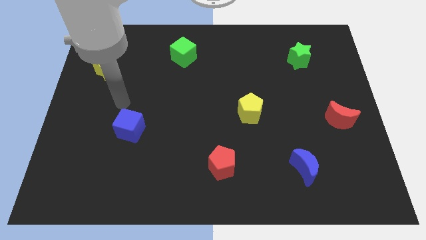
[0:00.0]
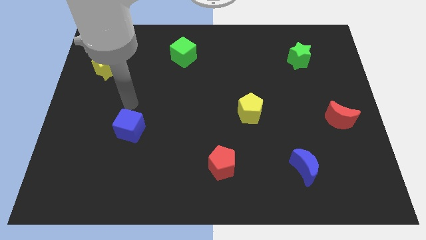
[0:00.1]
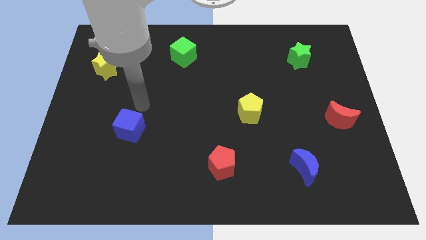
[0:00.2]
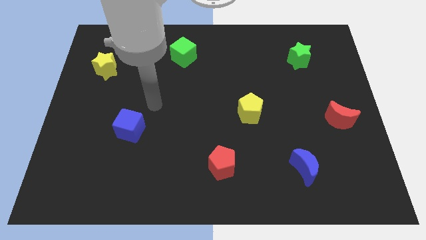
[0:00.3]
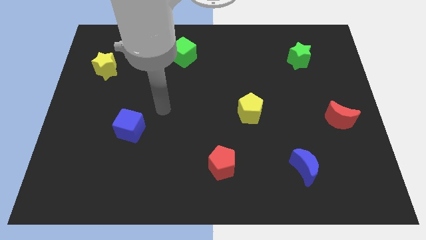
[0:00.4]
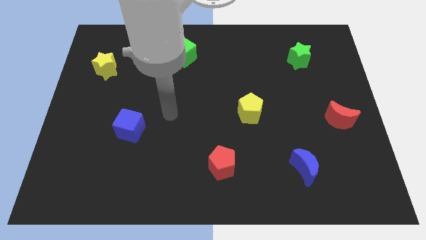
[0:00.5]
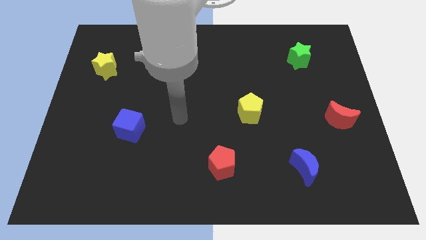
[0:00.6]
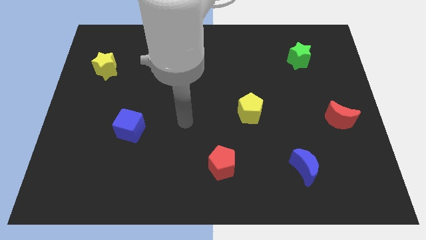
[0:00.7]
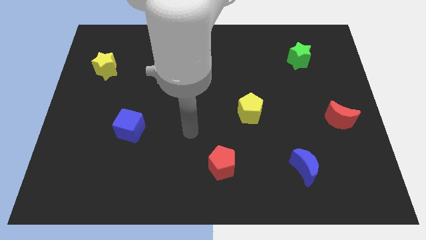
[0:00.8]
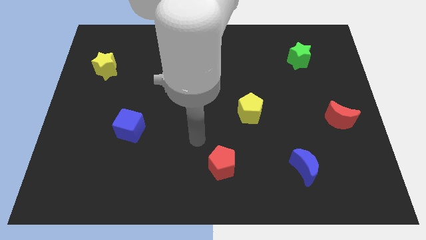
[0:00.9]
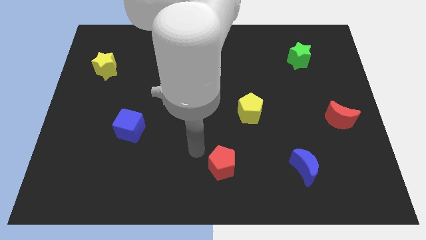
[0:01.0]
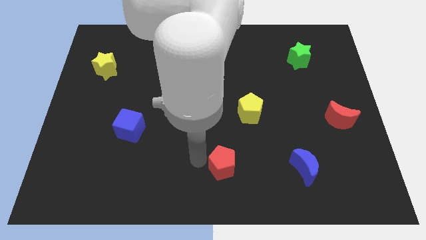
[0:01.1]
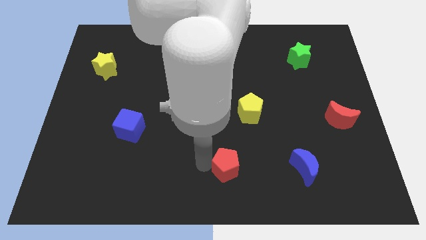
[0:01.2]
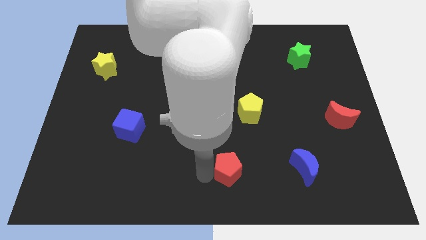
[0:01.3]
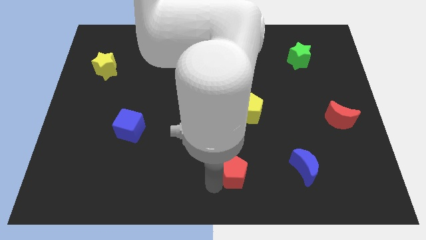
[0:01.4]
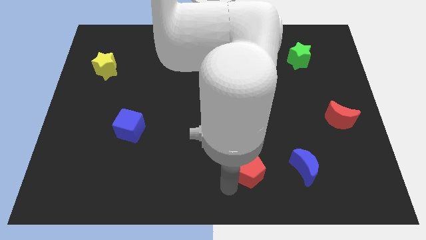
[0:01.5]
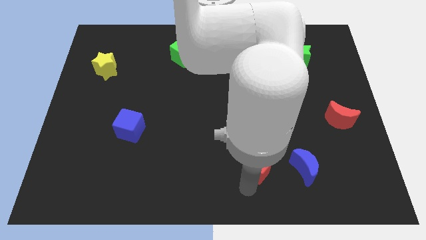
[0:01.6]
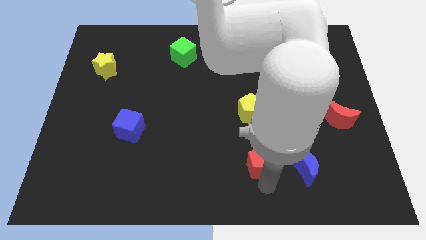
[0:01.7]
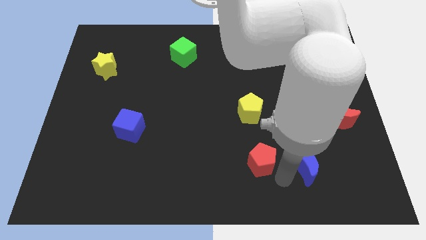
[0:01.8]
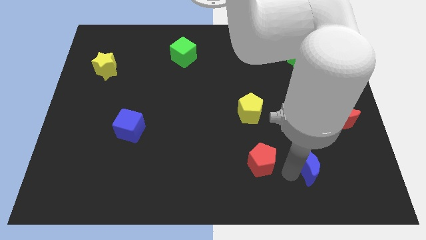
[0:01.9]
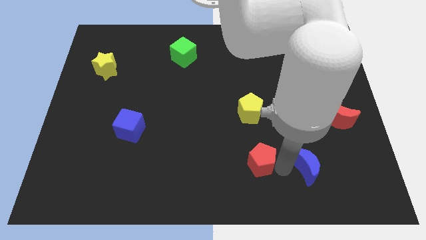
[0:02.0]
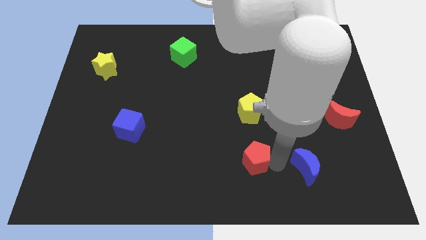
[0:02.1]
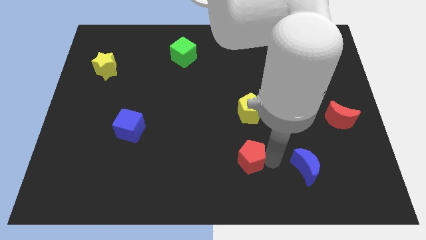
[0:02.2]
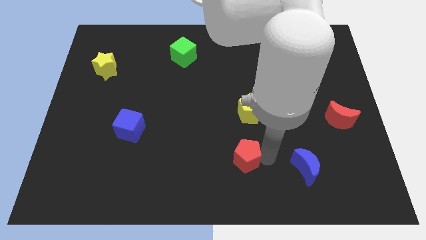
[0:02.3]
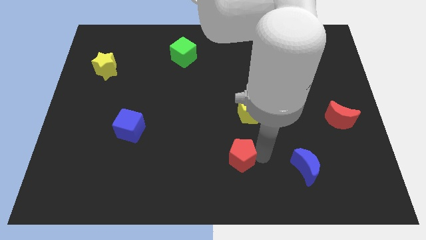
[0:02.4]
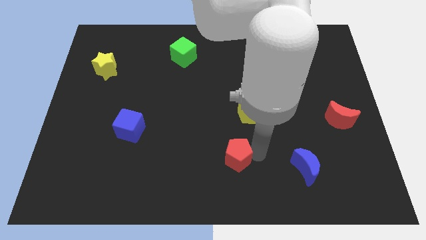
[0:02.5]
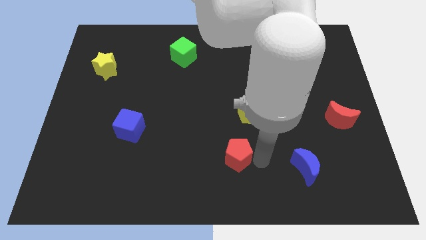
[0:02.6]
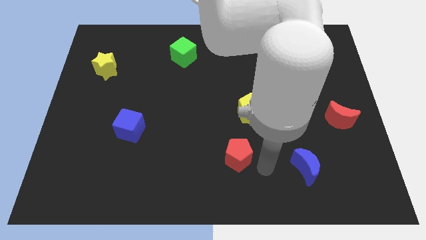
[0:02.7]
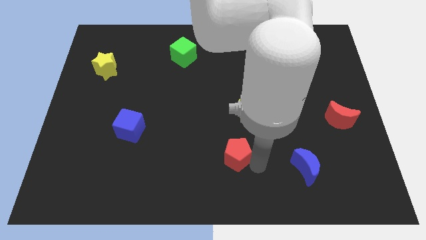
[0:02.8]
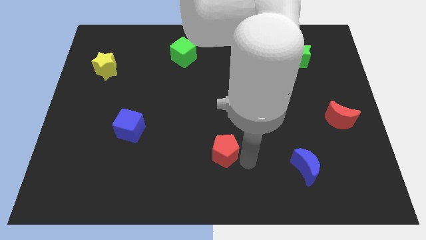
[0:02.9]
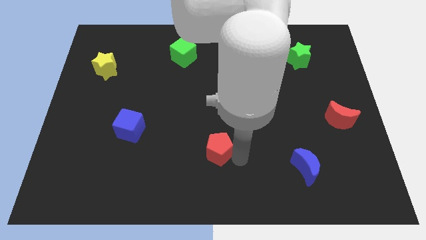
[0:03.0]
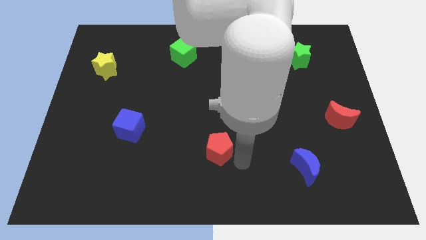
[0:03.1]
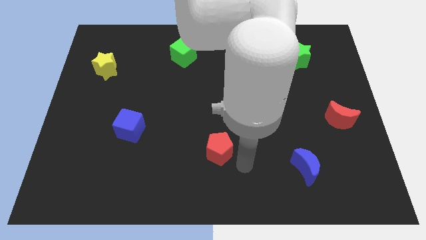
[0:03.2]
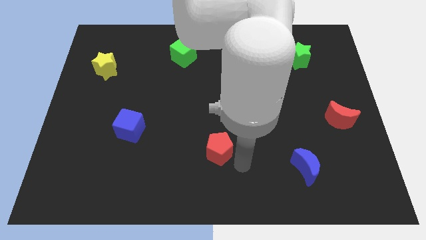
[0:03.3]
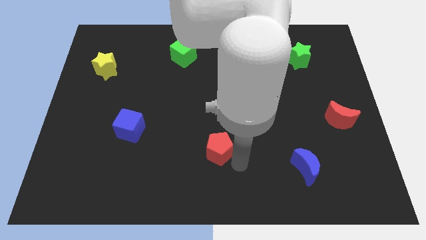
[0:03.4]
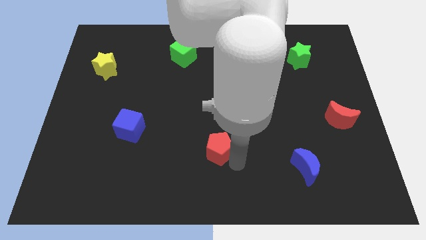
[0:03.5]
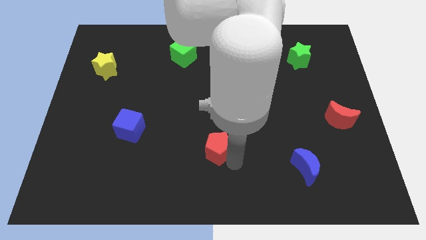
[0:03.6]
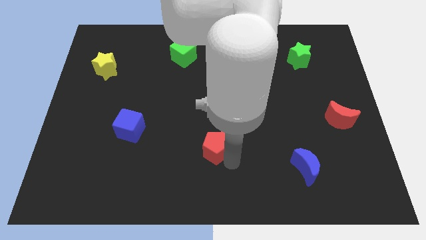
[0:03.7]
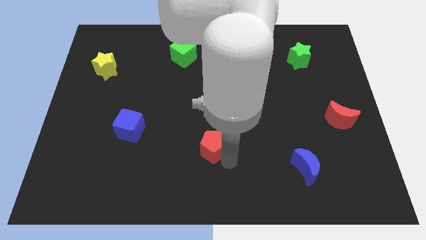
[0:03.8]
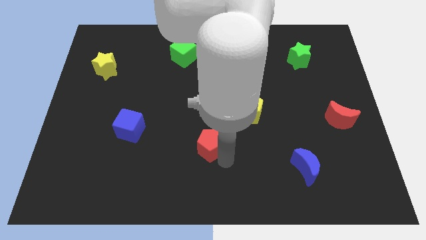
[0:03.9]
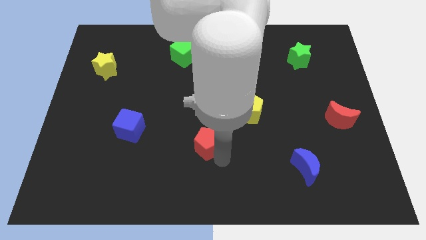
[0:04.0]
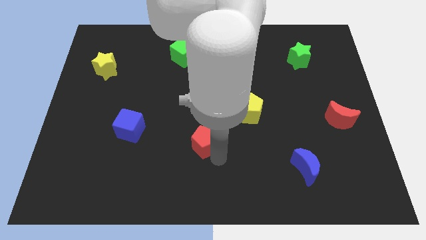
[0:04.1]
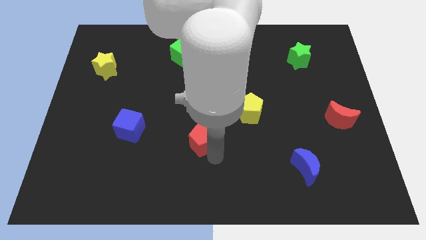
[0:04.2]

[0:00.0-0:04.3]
slide the red pentagon up and then to the left slightly

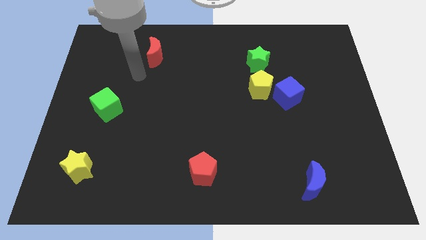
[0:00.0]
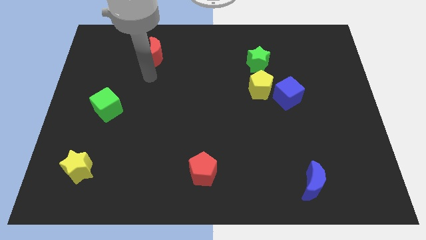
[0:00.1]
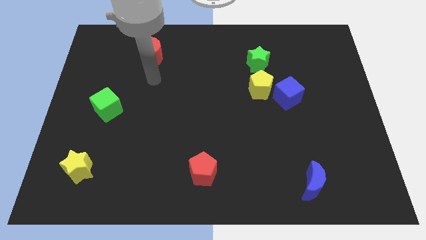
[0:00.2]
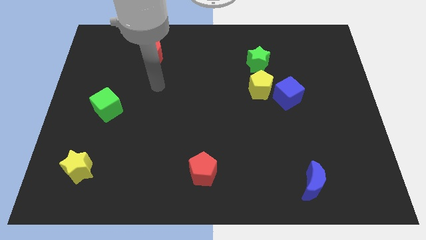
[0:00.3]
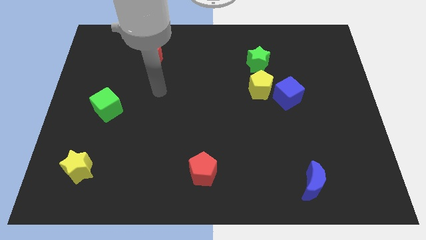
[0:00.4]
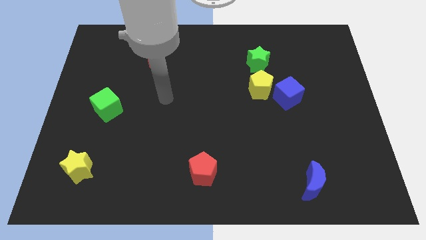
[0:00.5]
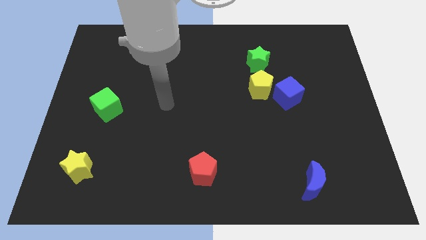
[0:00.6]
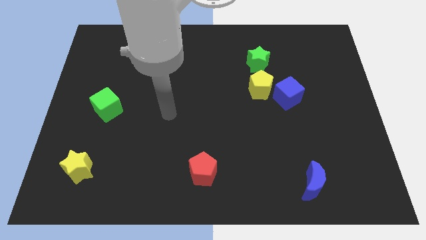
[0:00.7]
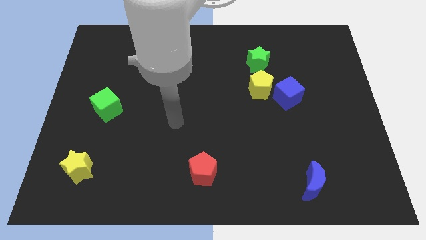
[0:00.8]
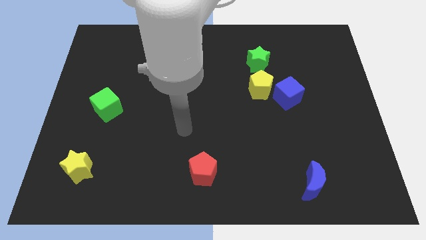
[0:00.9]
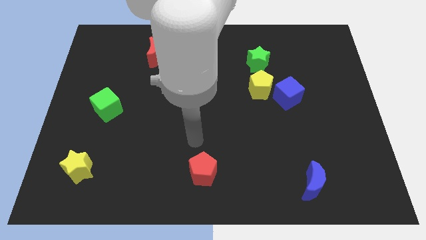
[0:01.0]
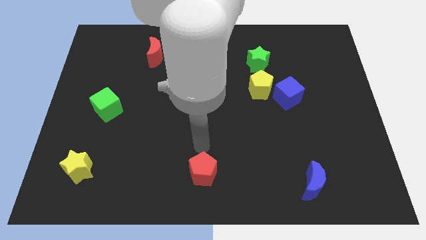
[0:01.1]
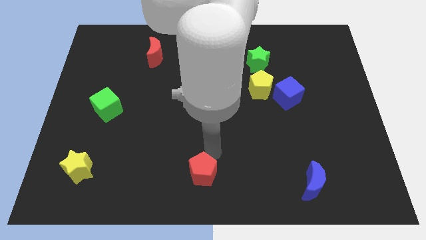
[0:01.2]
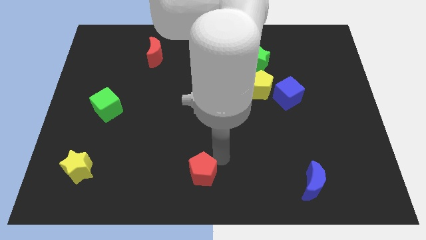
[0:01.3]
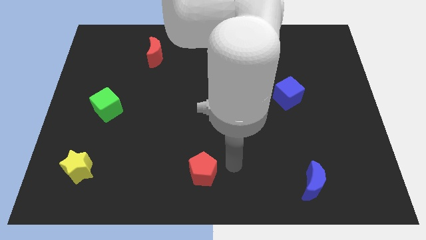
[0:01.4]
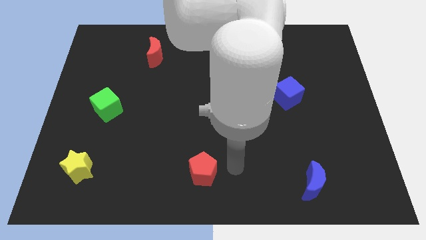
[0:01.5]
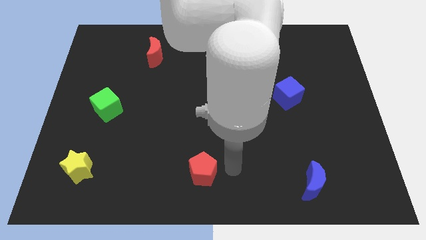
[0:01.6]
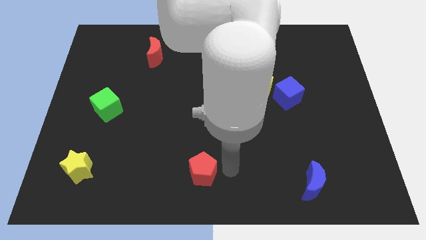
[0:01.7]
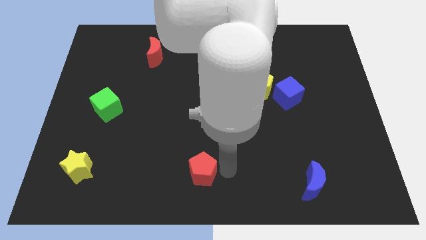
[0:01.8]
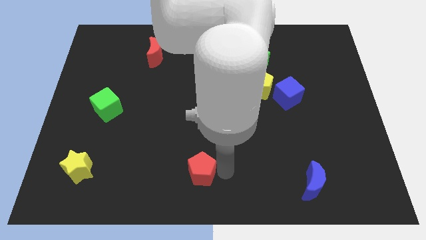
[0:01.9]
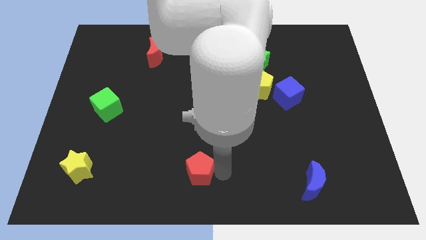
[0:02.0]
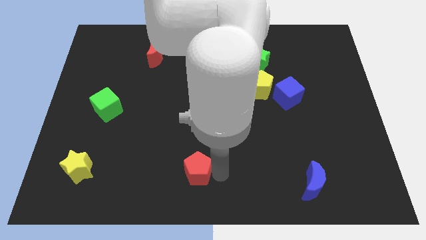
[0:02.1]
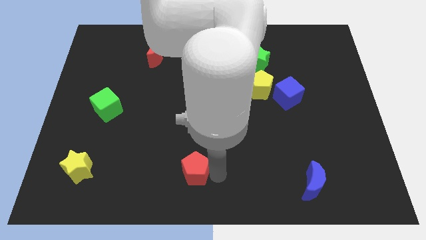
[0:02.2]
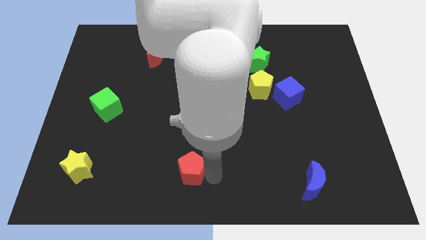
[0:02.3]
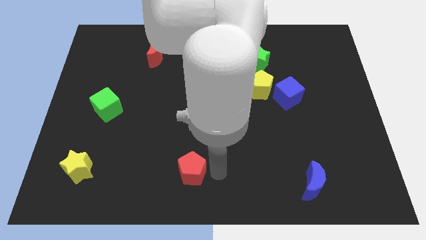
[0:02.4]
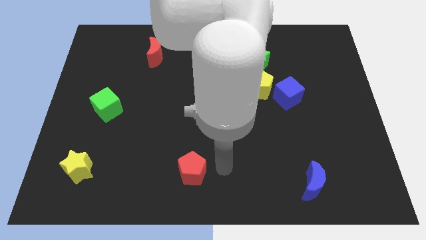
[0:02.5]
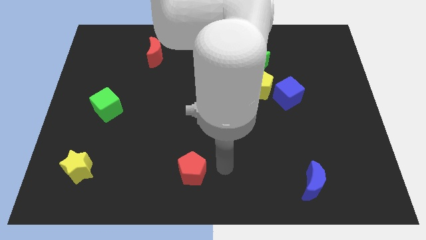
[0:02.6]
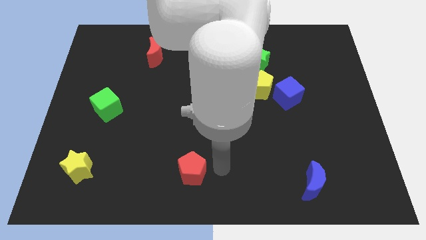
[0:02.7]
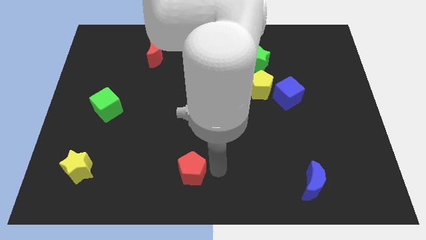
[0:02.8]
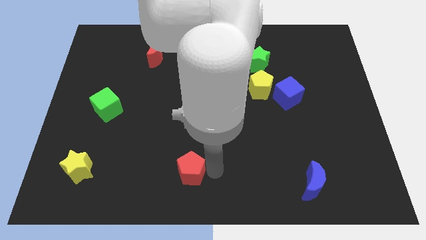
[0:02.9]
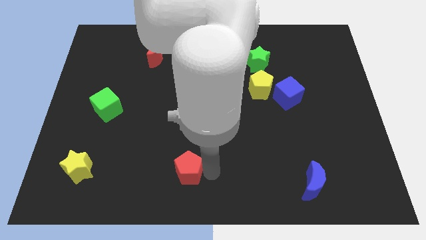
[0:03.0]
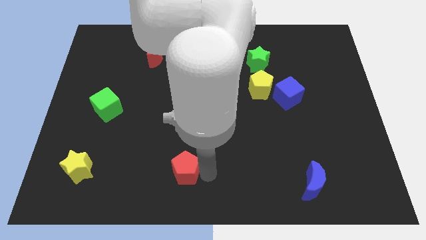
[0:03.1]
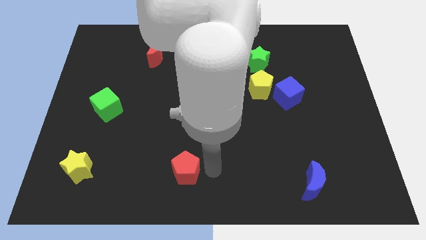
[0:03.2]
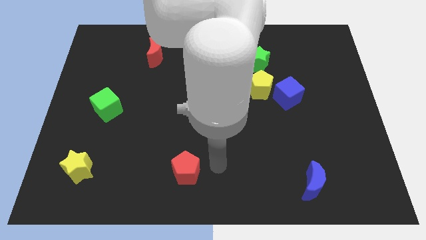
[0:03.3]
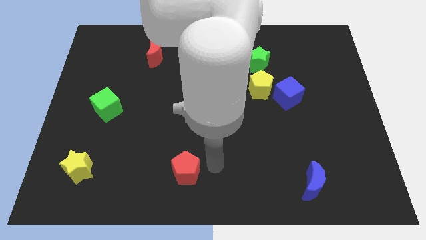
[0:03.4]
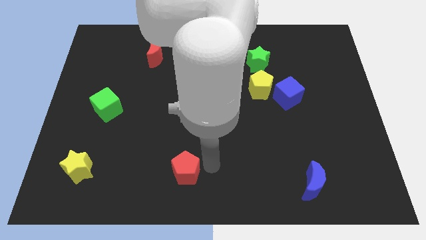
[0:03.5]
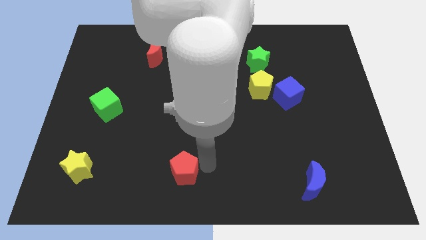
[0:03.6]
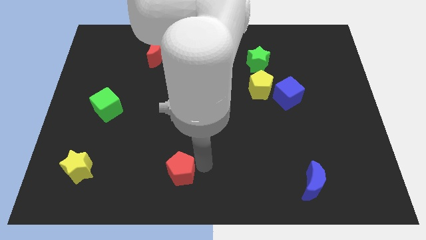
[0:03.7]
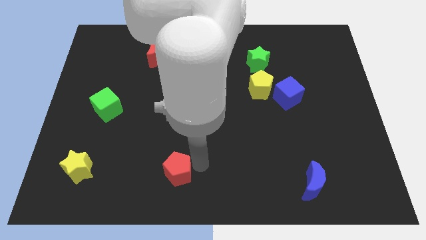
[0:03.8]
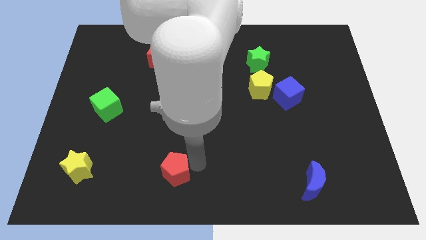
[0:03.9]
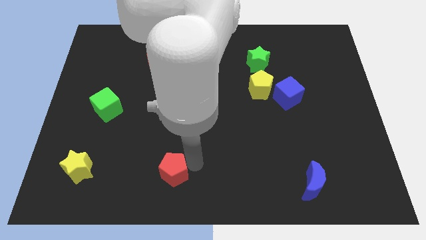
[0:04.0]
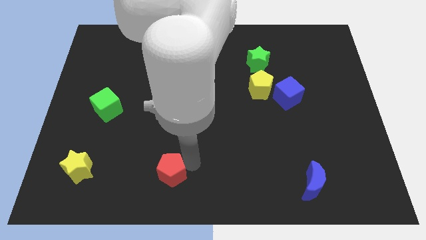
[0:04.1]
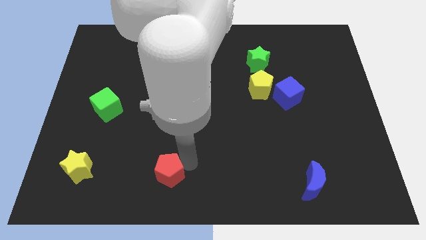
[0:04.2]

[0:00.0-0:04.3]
slightly move the red pentagon to the left
